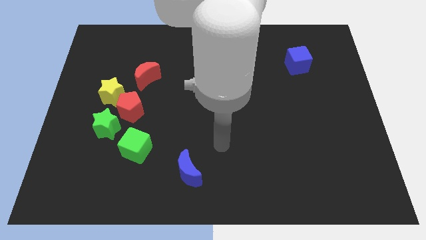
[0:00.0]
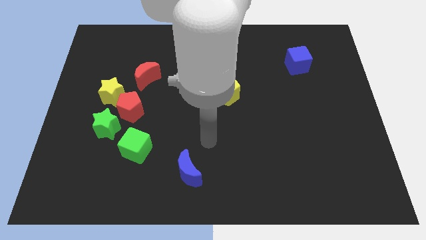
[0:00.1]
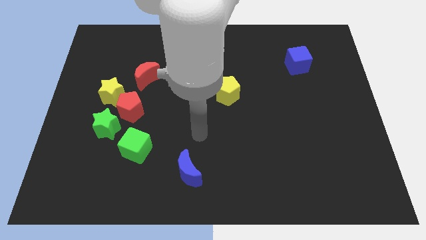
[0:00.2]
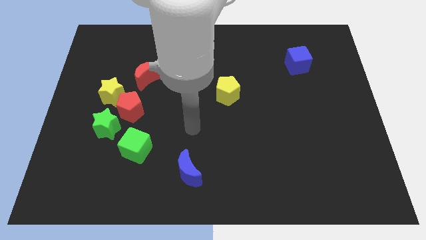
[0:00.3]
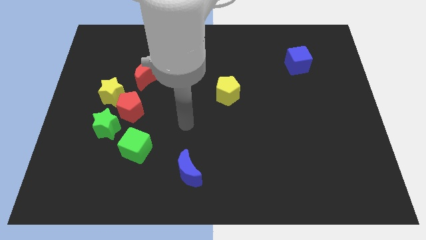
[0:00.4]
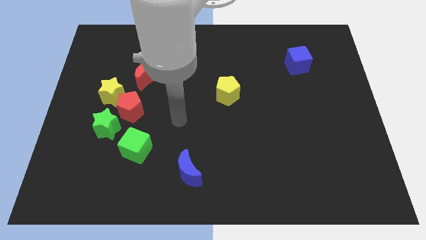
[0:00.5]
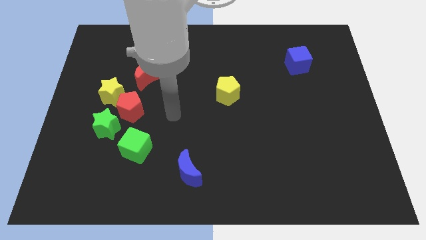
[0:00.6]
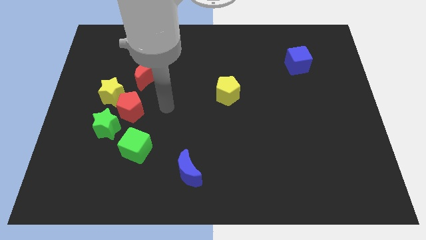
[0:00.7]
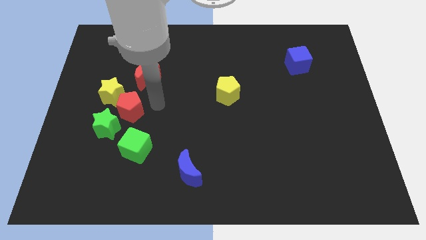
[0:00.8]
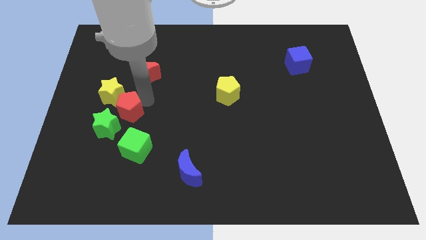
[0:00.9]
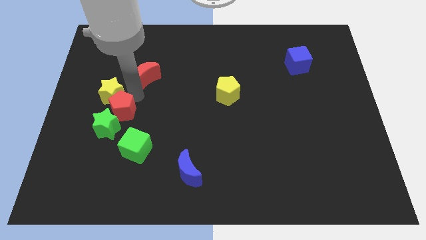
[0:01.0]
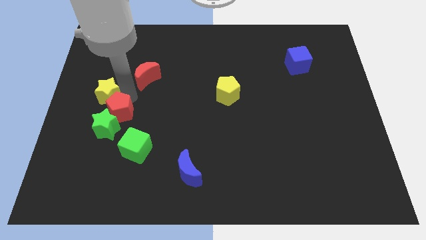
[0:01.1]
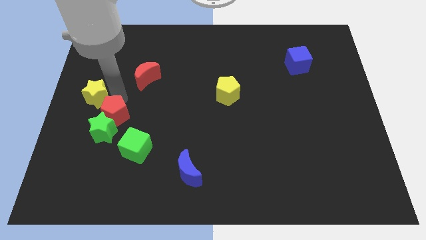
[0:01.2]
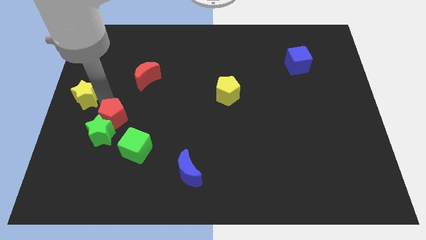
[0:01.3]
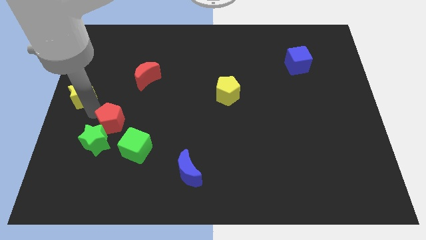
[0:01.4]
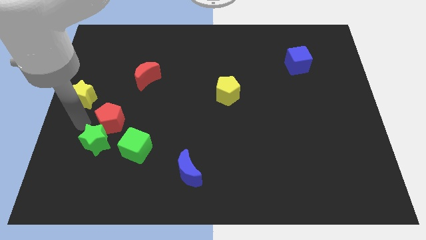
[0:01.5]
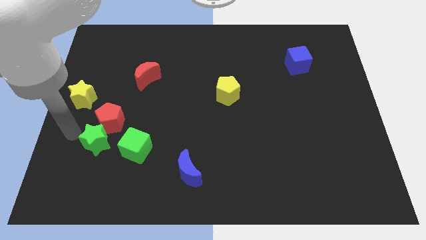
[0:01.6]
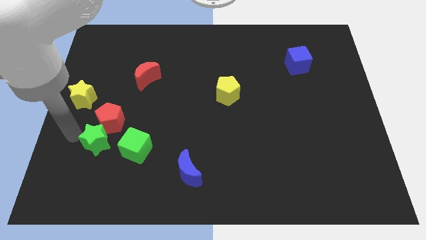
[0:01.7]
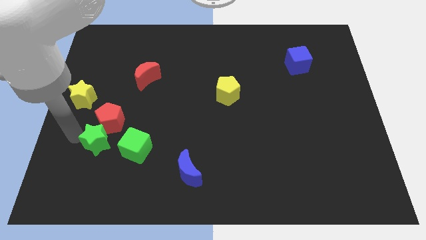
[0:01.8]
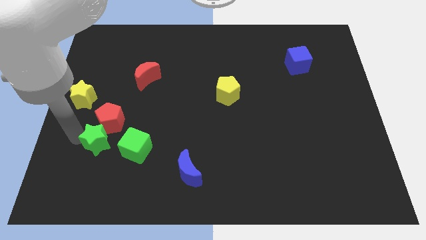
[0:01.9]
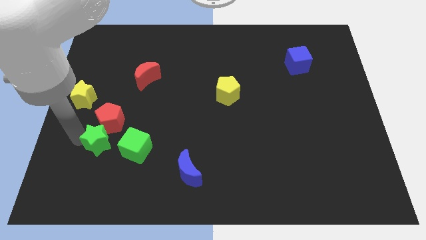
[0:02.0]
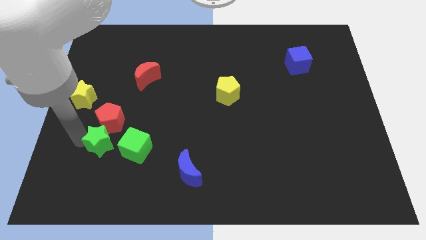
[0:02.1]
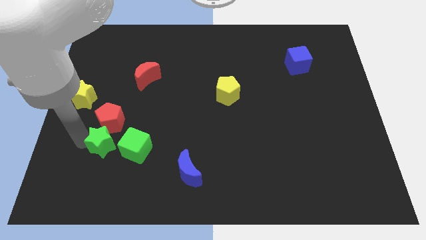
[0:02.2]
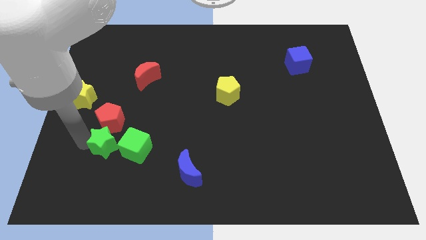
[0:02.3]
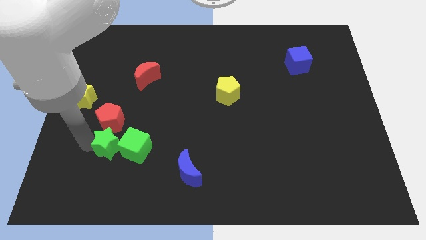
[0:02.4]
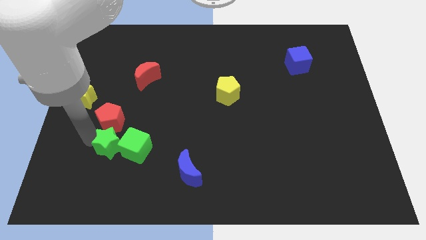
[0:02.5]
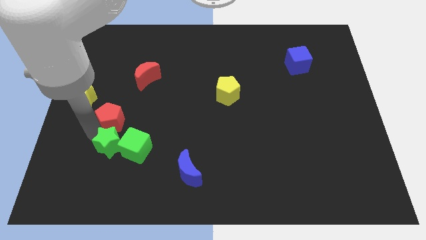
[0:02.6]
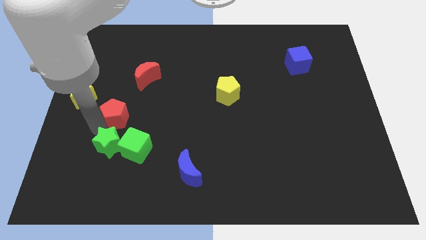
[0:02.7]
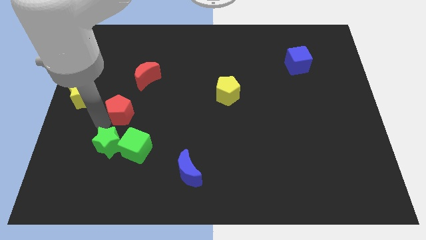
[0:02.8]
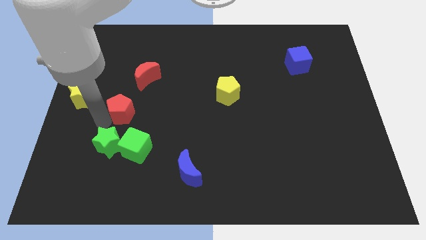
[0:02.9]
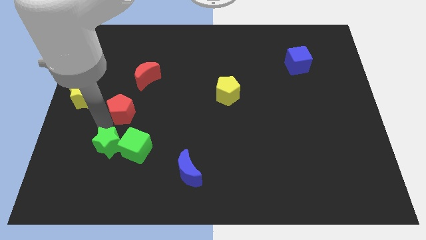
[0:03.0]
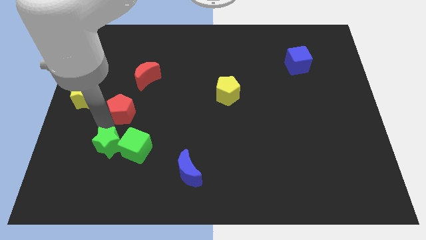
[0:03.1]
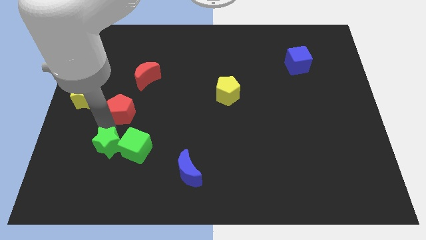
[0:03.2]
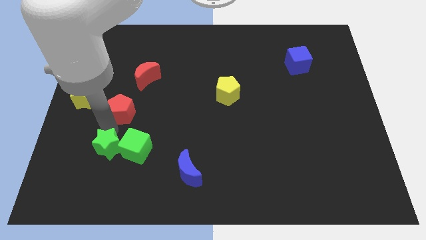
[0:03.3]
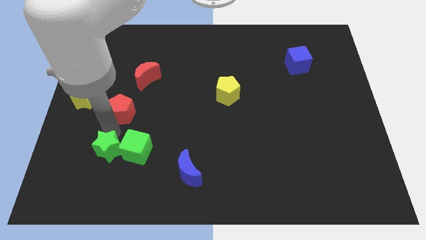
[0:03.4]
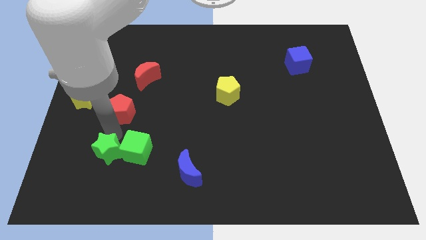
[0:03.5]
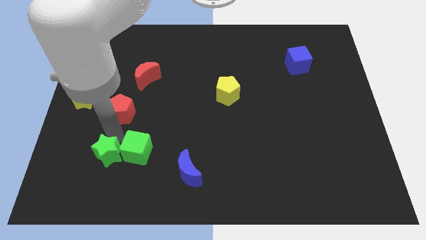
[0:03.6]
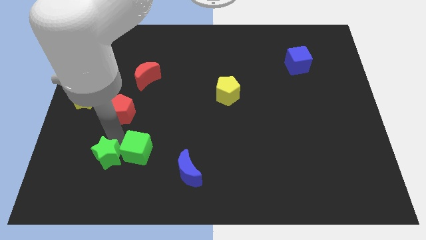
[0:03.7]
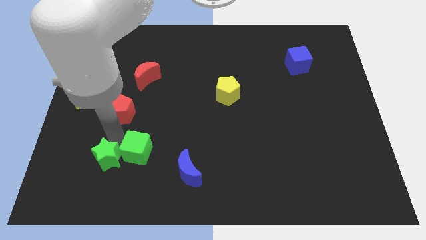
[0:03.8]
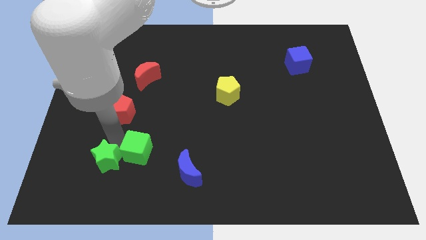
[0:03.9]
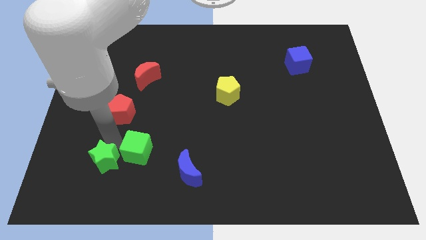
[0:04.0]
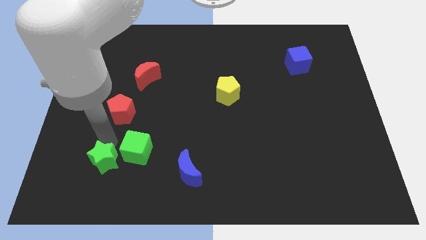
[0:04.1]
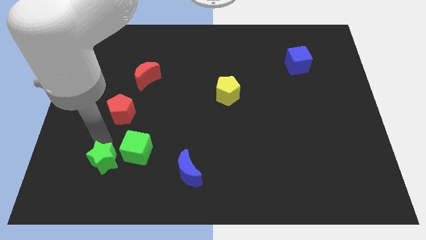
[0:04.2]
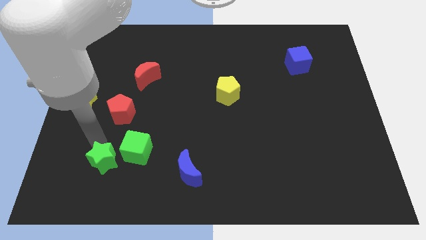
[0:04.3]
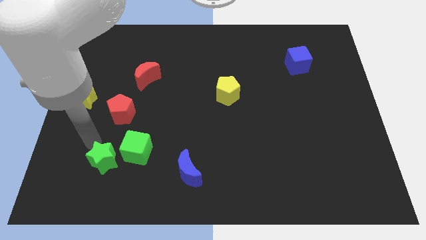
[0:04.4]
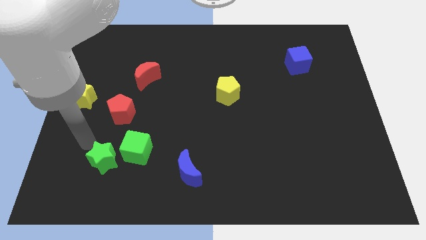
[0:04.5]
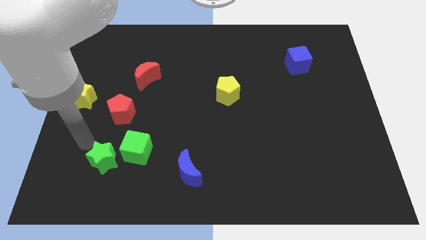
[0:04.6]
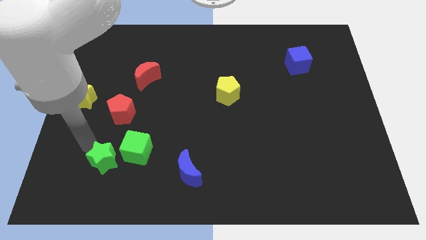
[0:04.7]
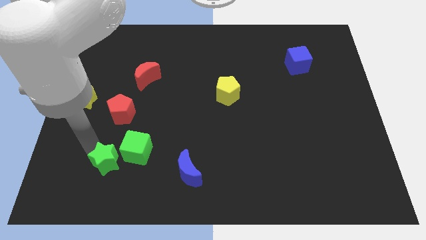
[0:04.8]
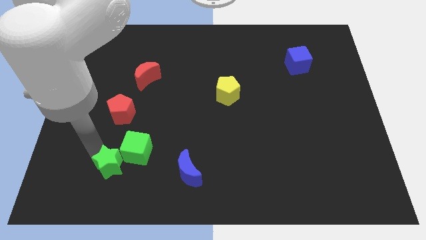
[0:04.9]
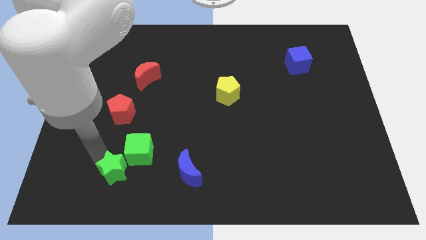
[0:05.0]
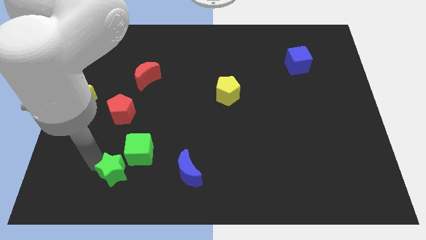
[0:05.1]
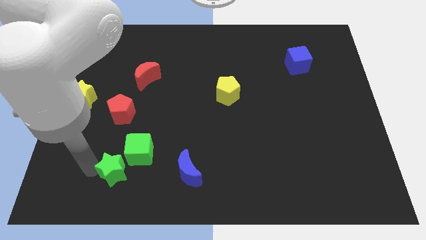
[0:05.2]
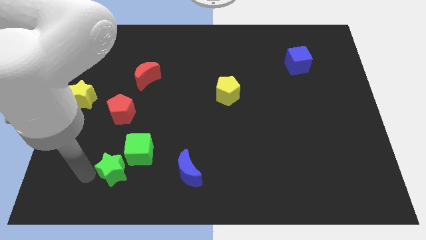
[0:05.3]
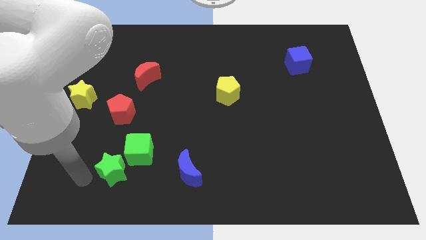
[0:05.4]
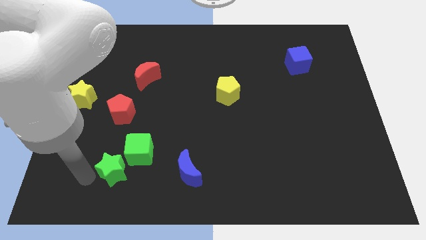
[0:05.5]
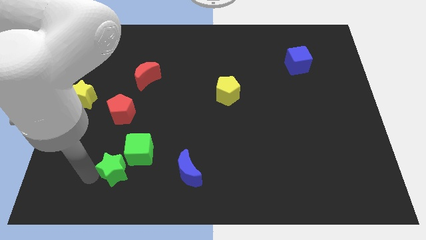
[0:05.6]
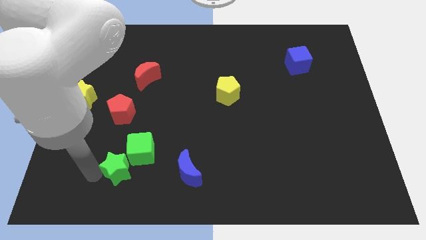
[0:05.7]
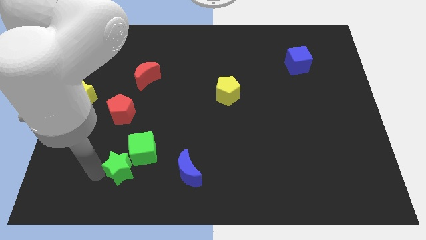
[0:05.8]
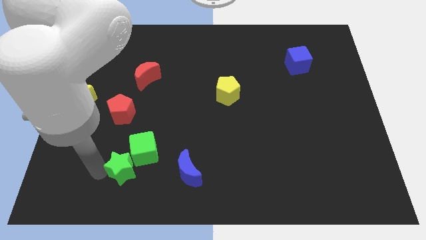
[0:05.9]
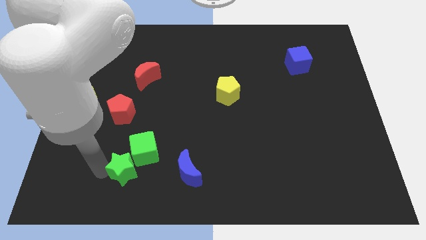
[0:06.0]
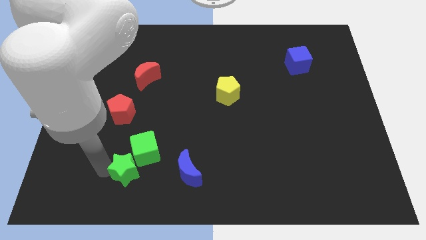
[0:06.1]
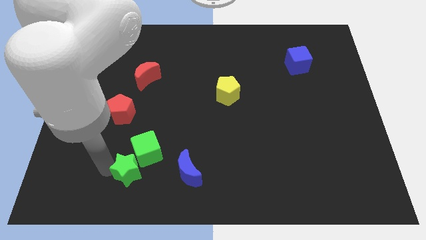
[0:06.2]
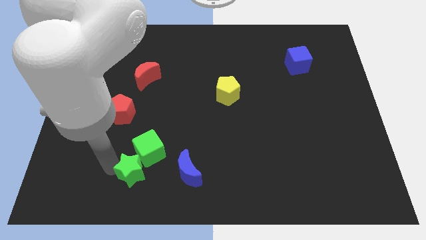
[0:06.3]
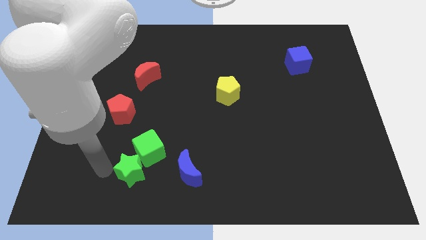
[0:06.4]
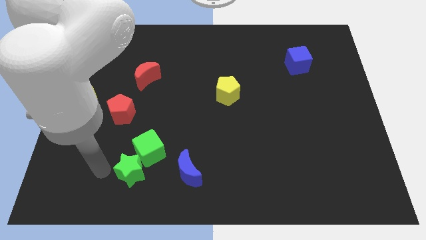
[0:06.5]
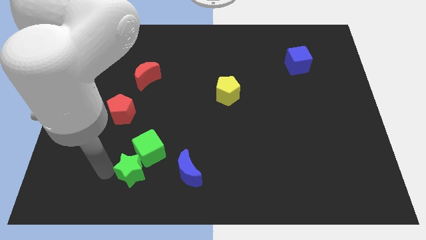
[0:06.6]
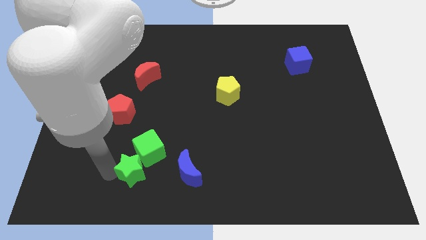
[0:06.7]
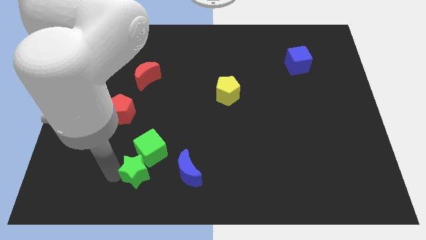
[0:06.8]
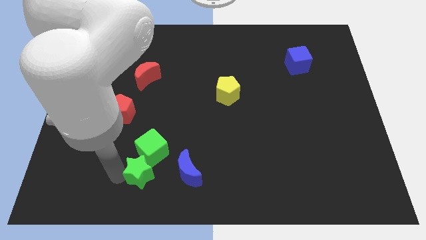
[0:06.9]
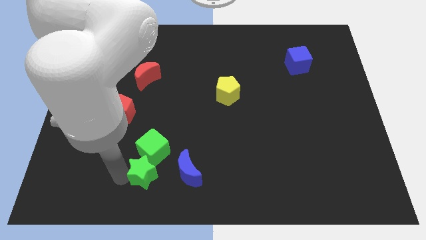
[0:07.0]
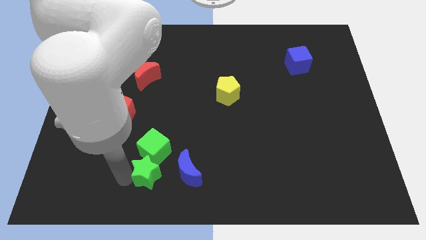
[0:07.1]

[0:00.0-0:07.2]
slide the green star diagonally down and to the right of the green cube

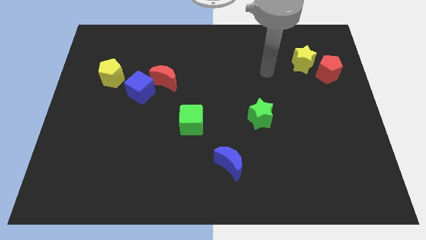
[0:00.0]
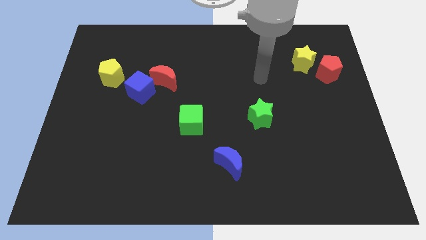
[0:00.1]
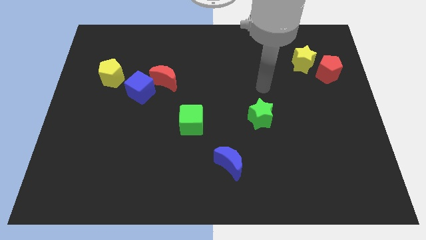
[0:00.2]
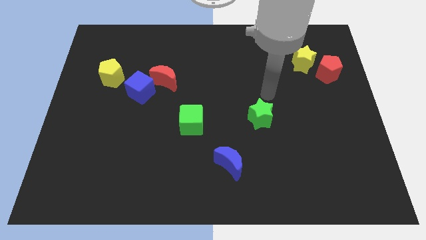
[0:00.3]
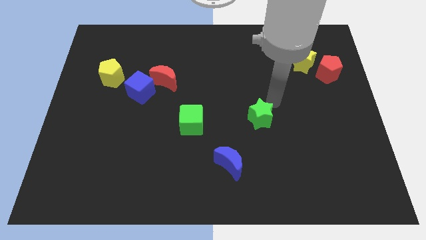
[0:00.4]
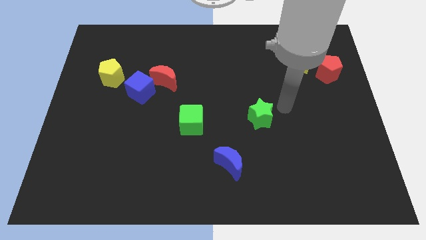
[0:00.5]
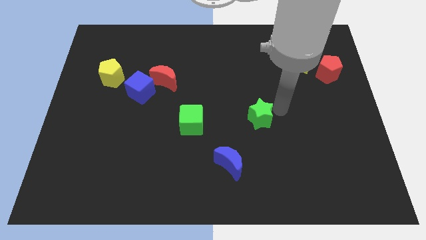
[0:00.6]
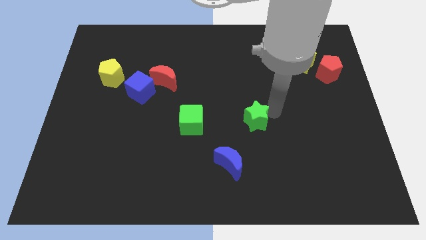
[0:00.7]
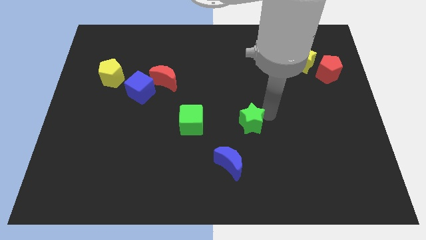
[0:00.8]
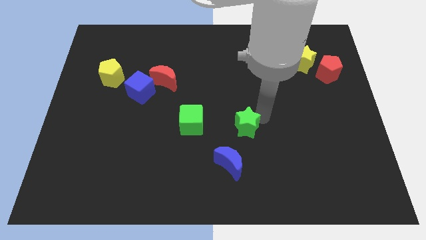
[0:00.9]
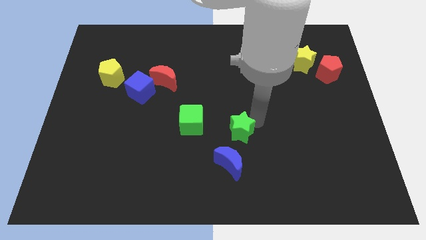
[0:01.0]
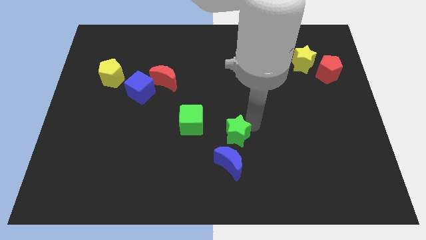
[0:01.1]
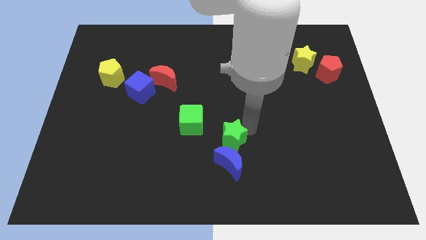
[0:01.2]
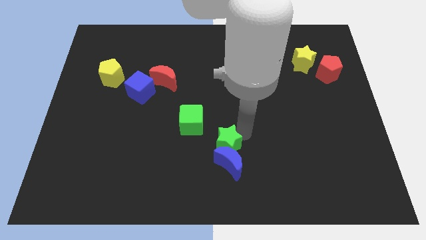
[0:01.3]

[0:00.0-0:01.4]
move the green star diagonally up and to the left of the blue moon
